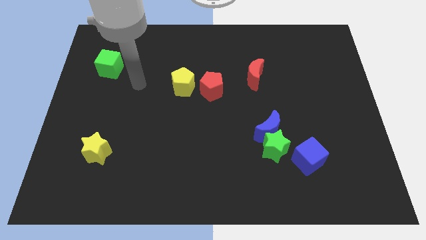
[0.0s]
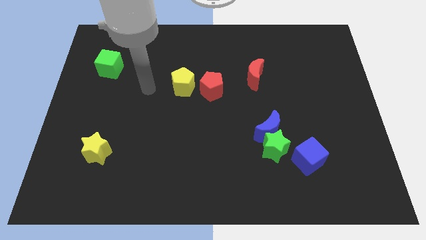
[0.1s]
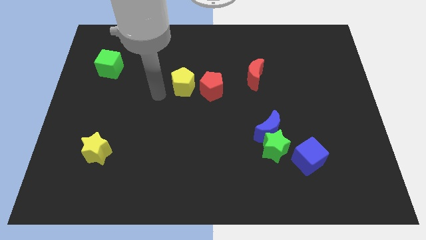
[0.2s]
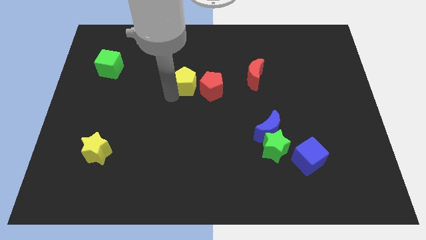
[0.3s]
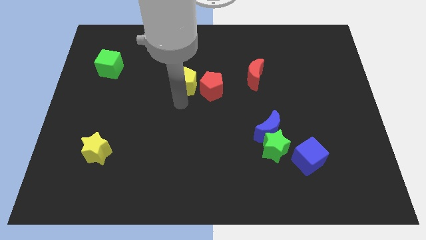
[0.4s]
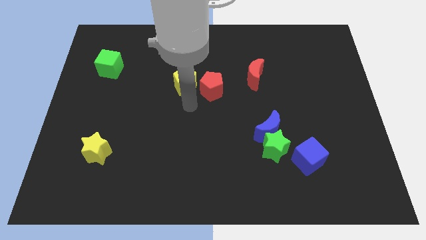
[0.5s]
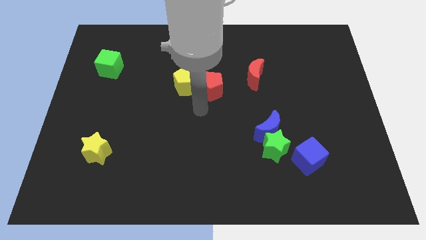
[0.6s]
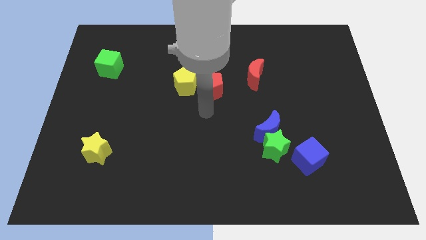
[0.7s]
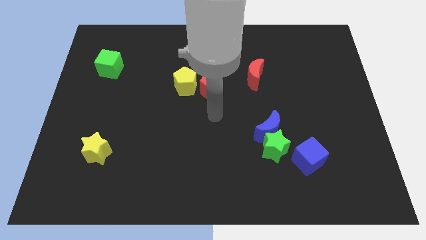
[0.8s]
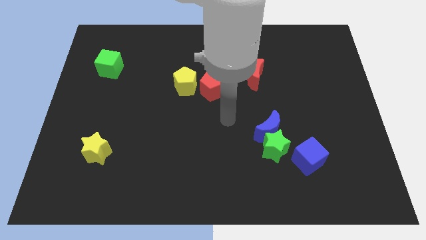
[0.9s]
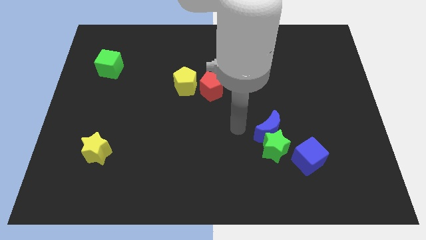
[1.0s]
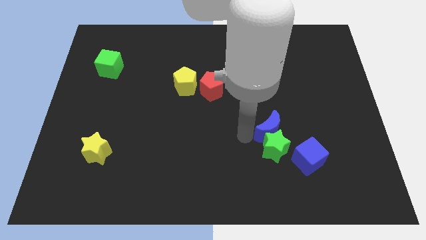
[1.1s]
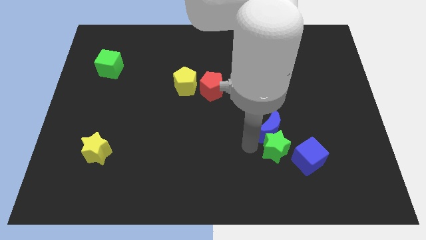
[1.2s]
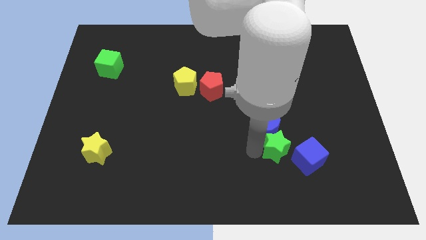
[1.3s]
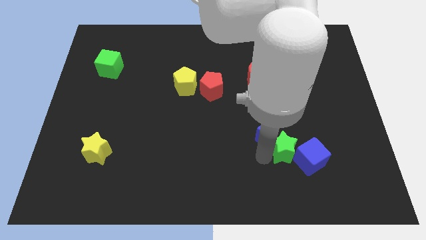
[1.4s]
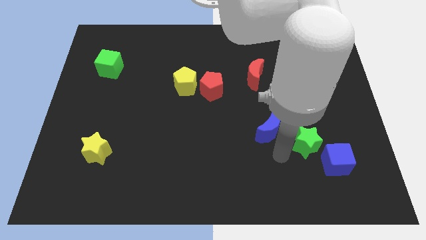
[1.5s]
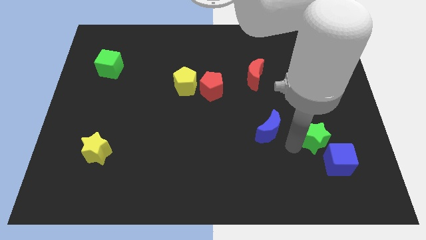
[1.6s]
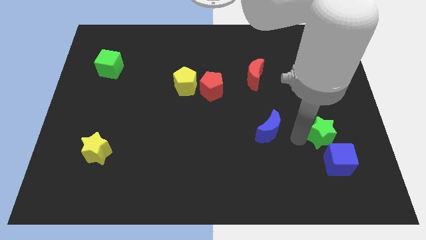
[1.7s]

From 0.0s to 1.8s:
separate the blue moon from the green star

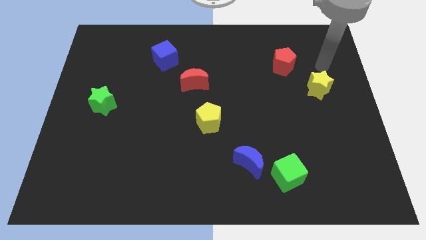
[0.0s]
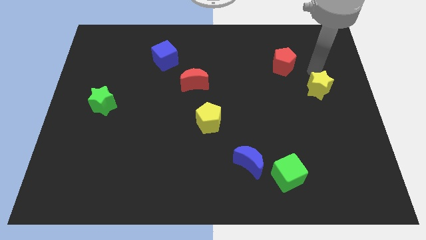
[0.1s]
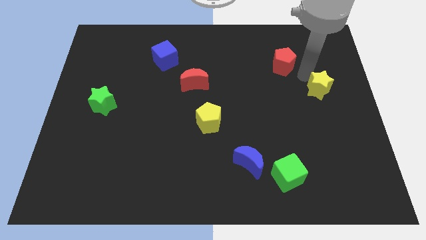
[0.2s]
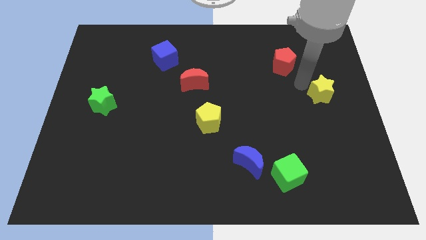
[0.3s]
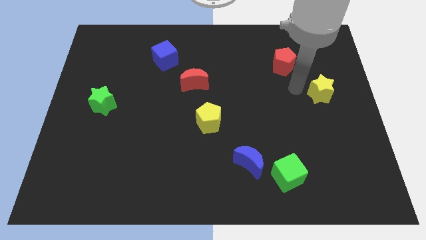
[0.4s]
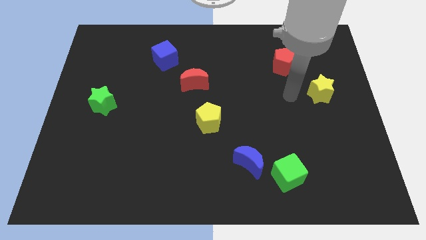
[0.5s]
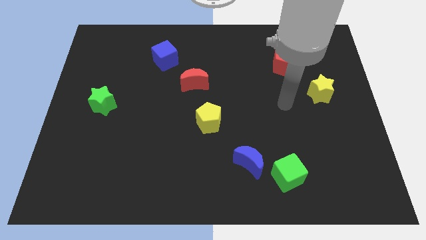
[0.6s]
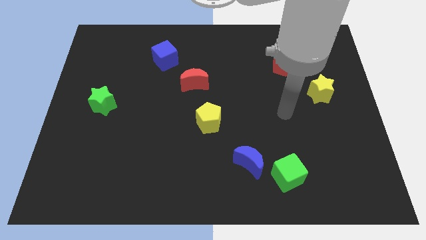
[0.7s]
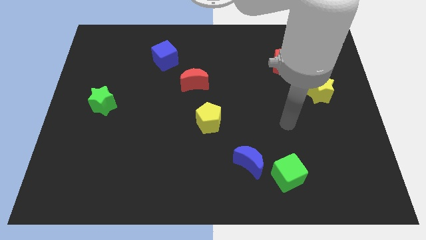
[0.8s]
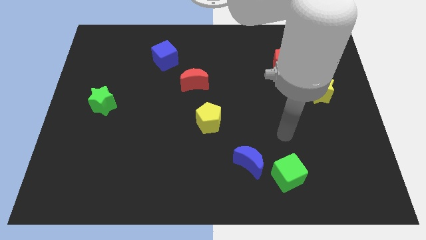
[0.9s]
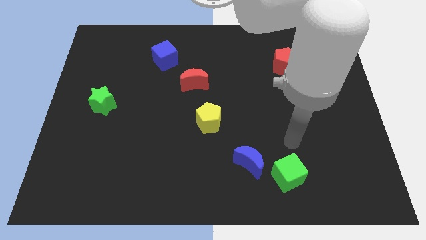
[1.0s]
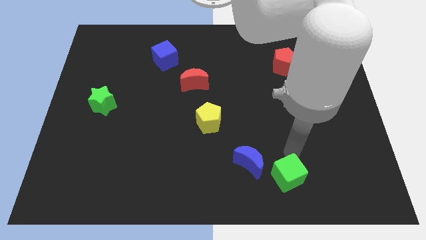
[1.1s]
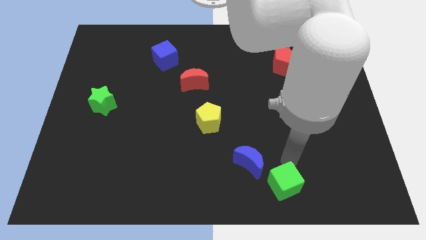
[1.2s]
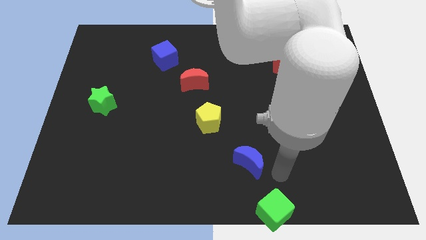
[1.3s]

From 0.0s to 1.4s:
pull the blue moon apart from the green cube

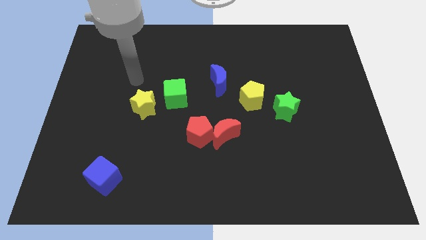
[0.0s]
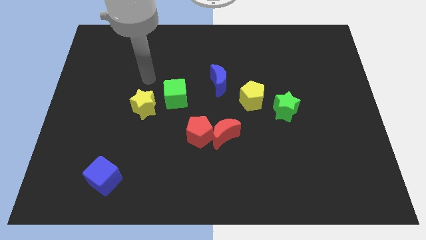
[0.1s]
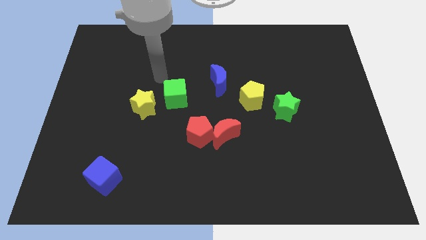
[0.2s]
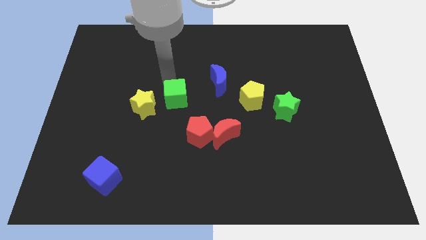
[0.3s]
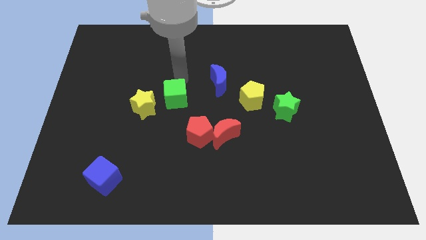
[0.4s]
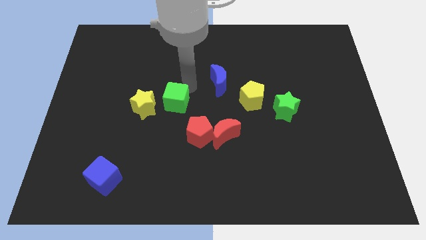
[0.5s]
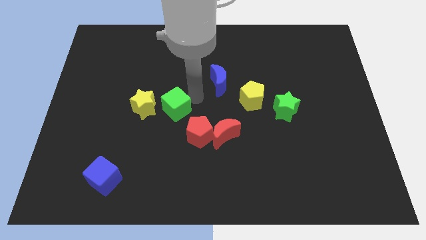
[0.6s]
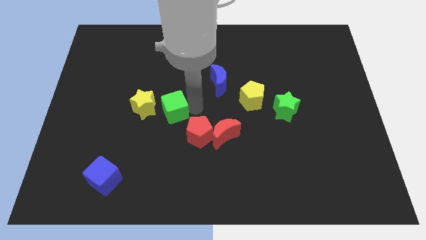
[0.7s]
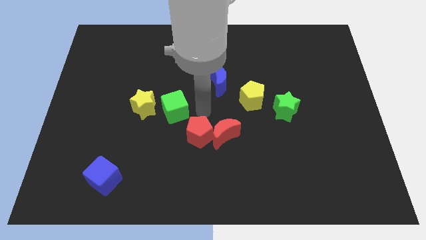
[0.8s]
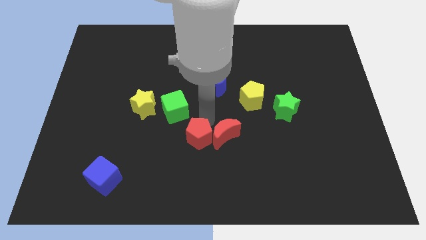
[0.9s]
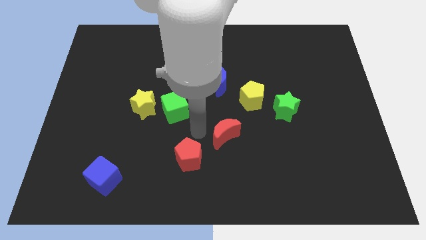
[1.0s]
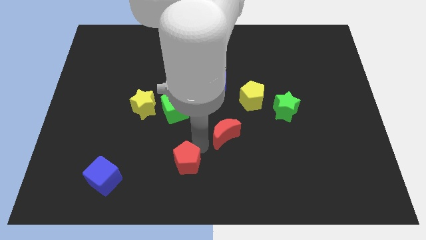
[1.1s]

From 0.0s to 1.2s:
move the red moon away from the red pentagon

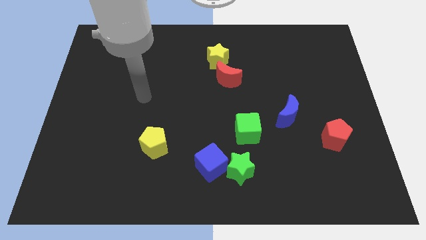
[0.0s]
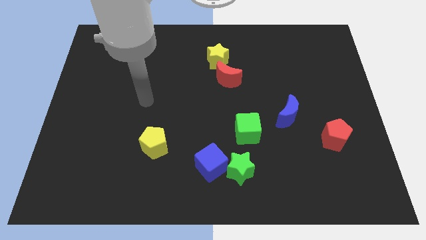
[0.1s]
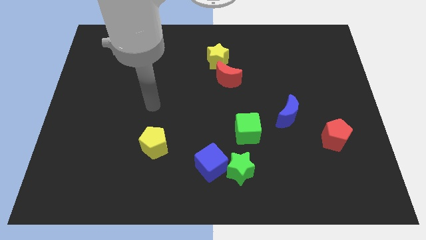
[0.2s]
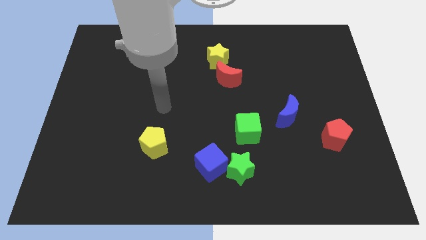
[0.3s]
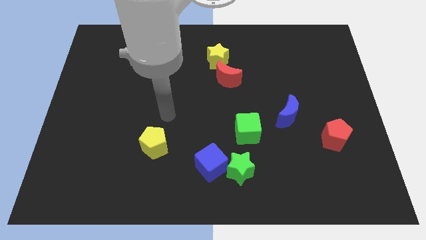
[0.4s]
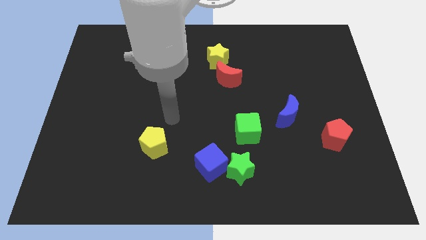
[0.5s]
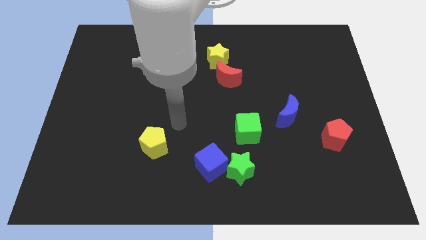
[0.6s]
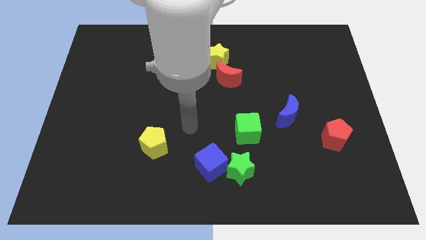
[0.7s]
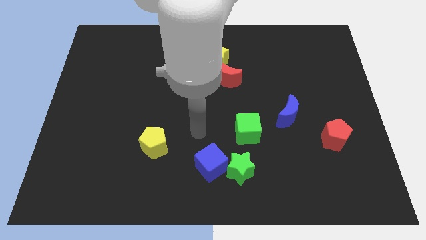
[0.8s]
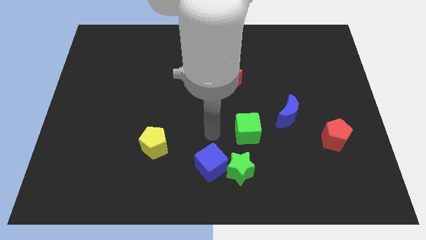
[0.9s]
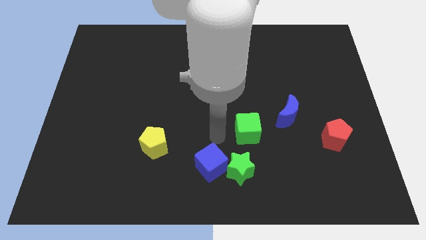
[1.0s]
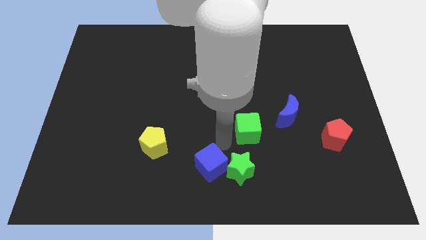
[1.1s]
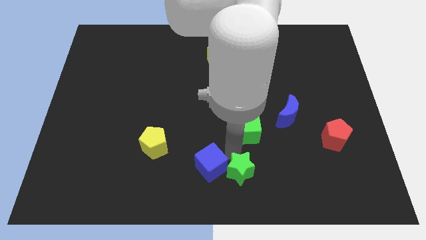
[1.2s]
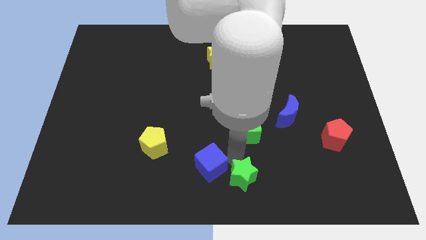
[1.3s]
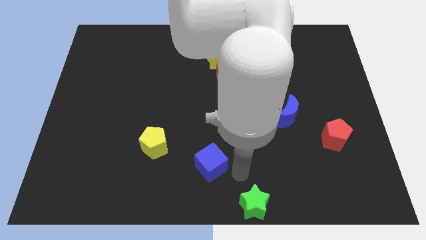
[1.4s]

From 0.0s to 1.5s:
pull the blue cube apart from the green star

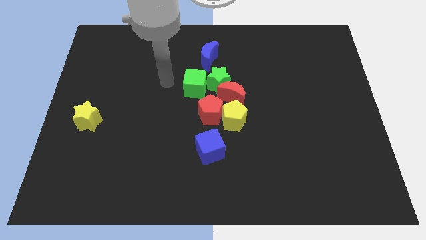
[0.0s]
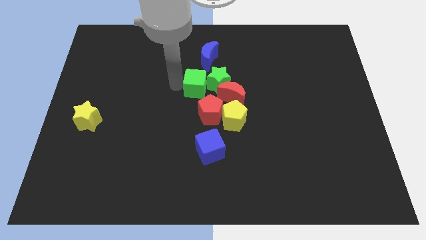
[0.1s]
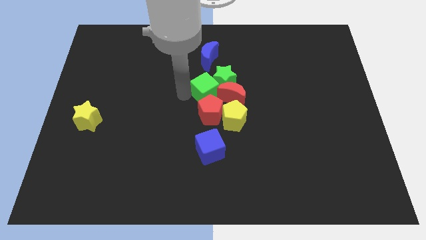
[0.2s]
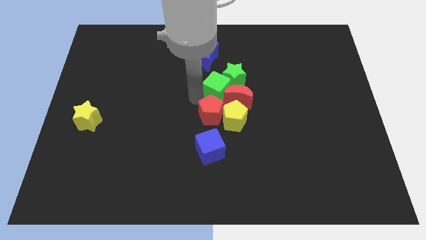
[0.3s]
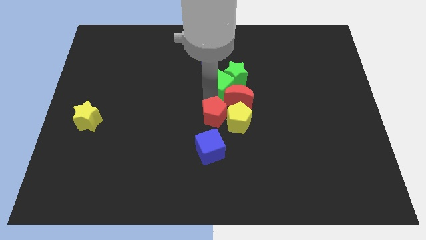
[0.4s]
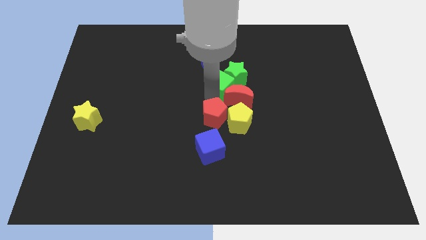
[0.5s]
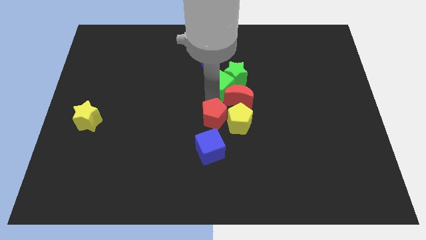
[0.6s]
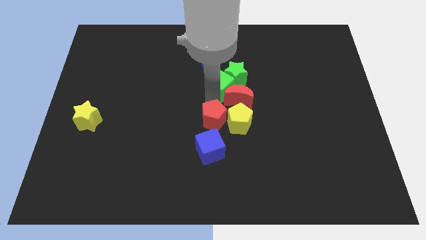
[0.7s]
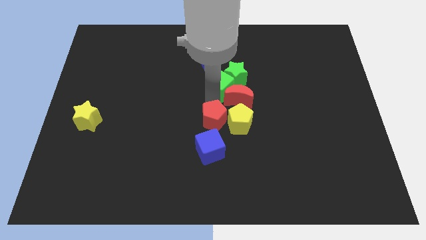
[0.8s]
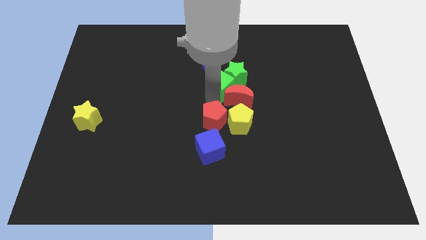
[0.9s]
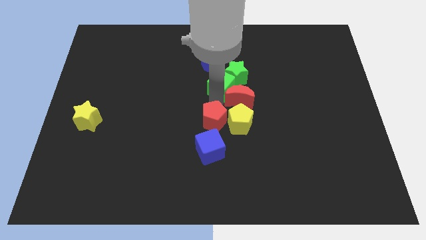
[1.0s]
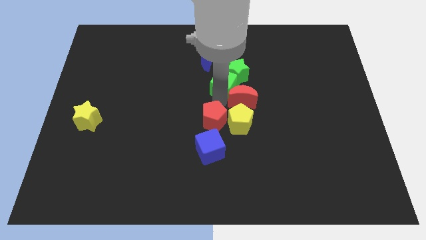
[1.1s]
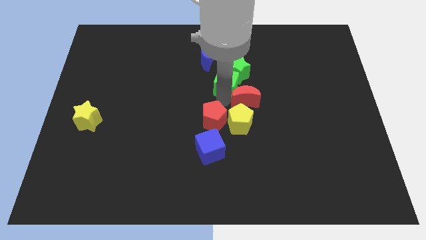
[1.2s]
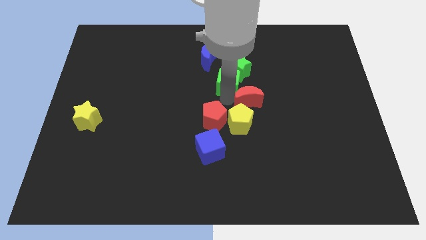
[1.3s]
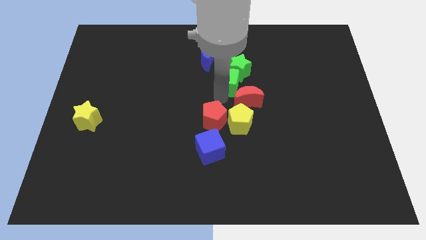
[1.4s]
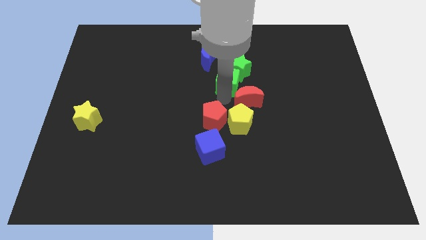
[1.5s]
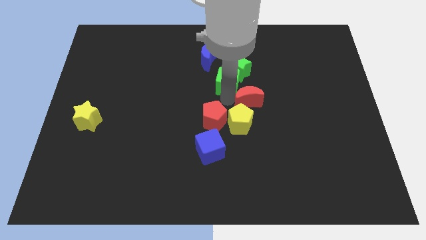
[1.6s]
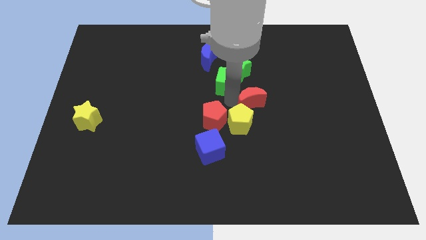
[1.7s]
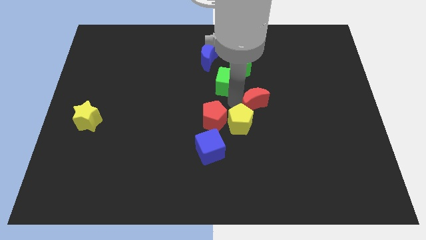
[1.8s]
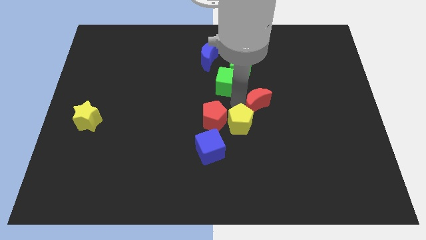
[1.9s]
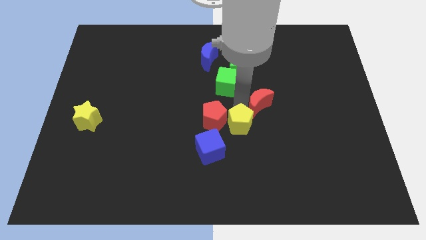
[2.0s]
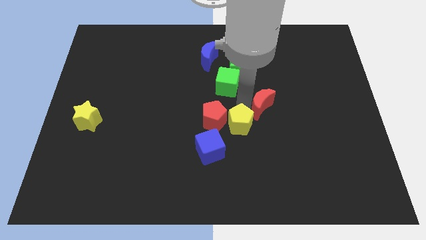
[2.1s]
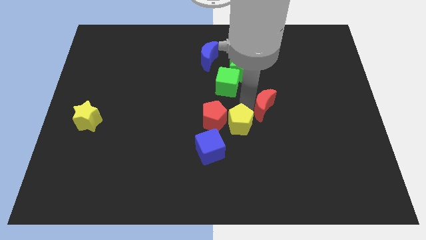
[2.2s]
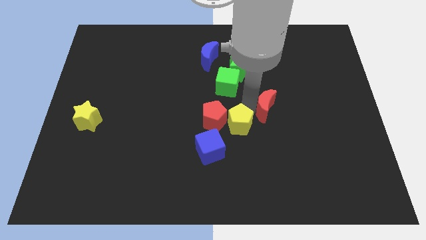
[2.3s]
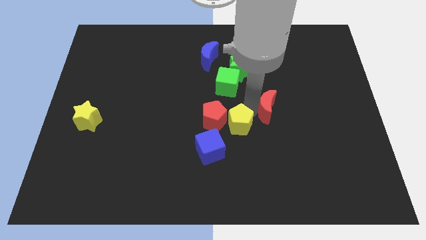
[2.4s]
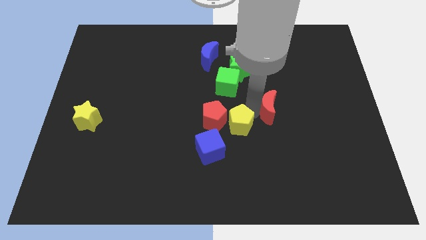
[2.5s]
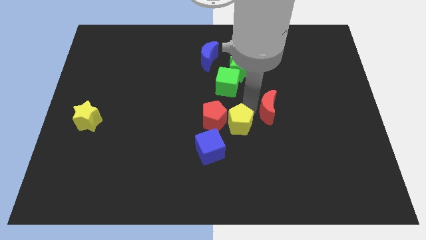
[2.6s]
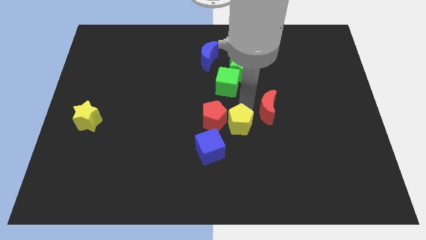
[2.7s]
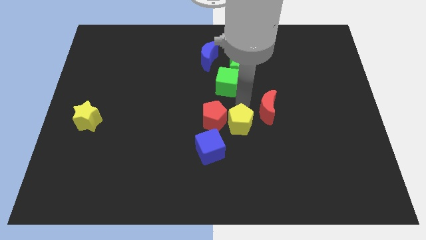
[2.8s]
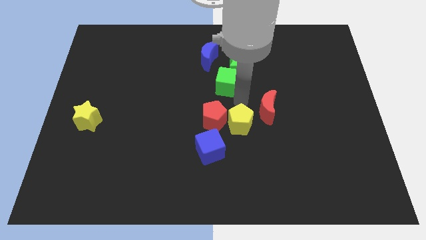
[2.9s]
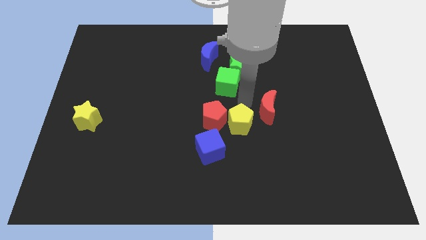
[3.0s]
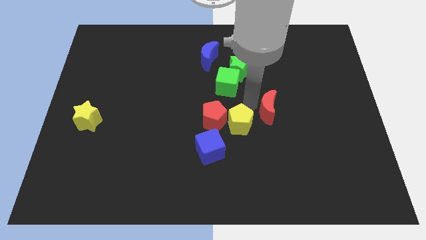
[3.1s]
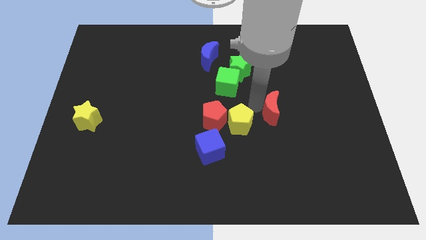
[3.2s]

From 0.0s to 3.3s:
pull the red moon apart from the group of blocks

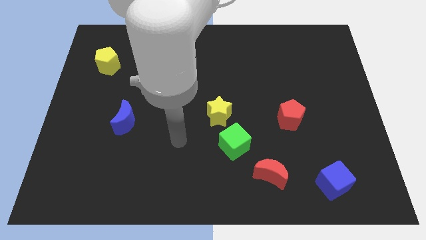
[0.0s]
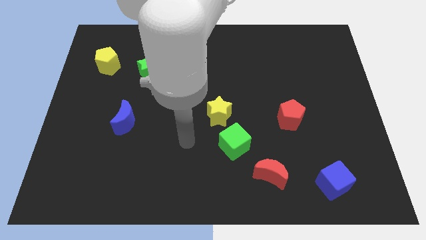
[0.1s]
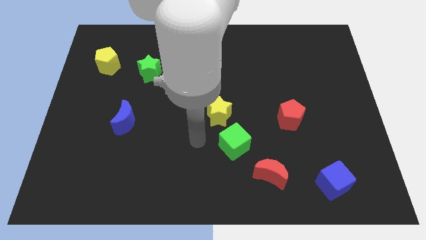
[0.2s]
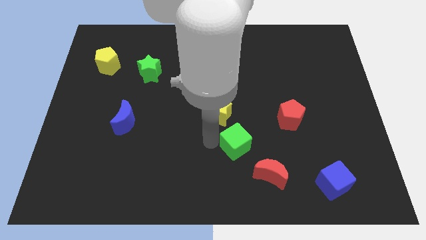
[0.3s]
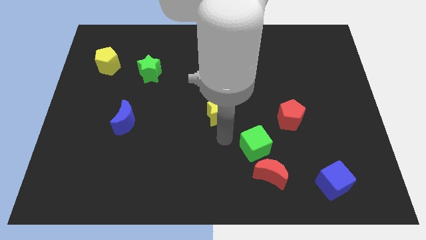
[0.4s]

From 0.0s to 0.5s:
separate the yellow star from the green cube
